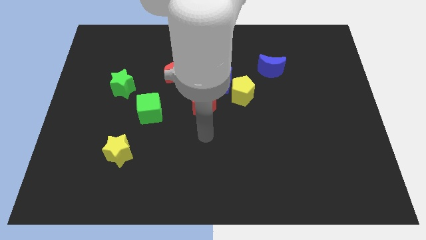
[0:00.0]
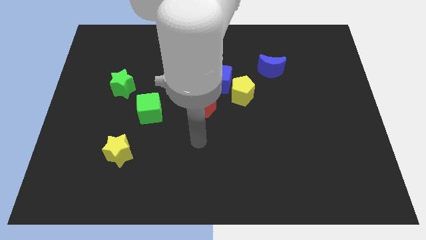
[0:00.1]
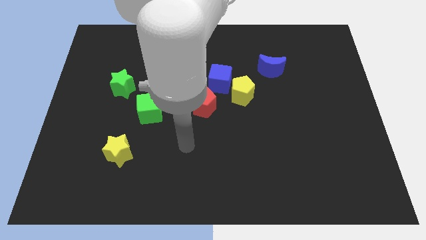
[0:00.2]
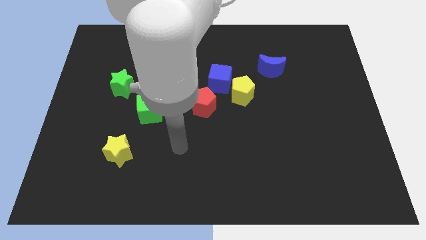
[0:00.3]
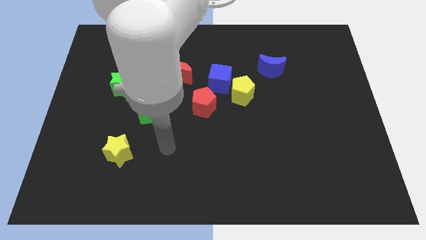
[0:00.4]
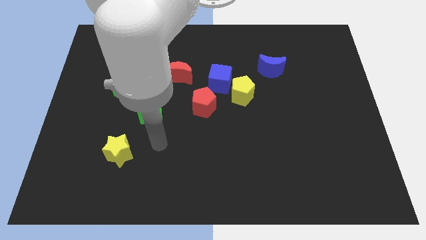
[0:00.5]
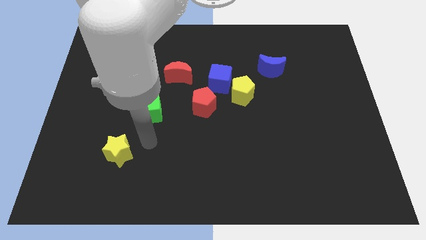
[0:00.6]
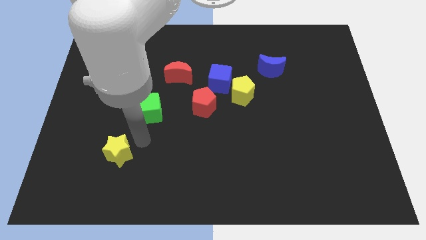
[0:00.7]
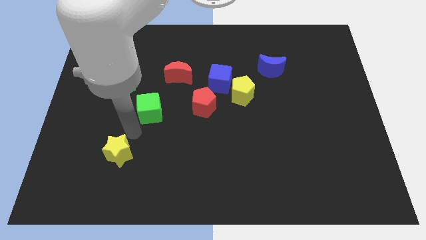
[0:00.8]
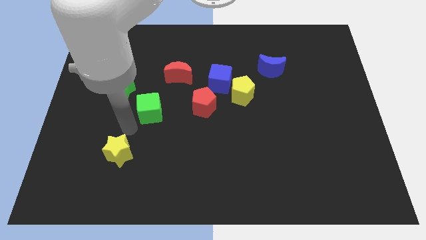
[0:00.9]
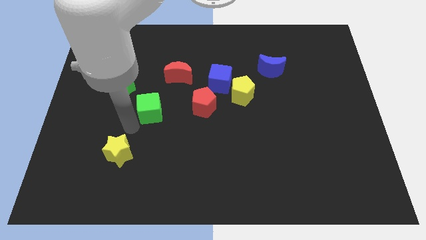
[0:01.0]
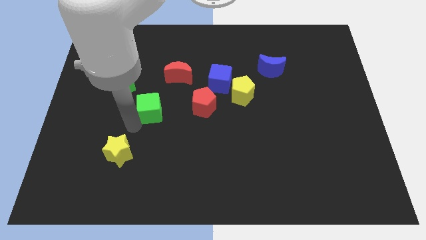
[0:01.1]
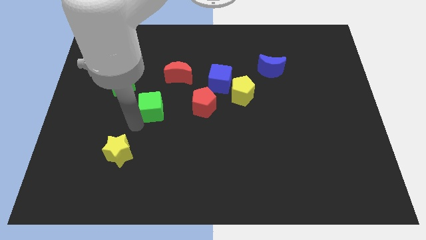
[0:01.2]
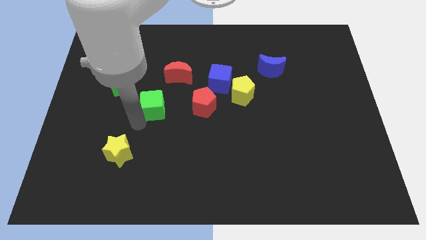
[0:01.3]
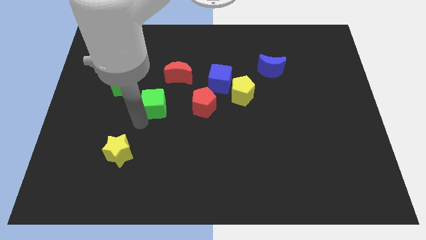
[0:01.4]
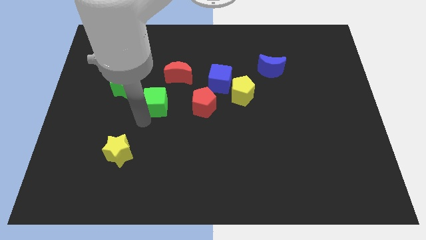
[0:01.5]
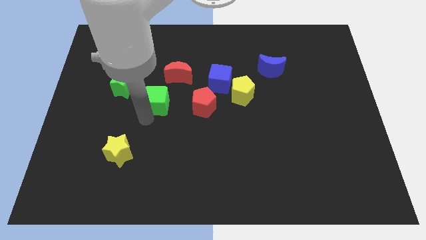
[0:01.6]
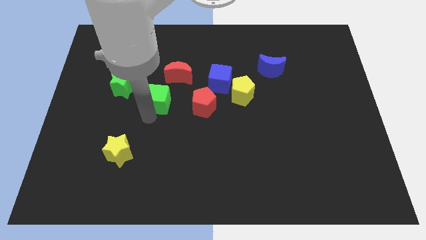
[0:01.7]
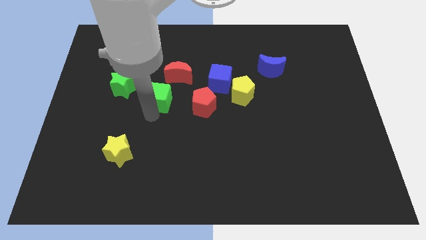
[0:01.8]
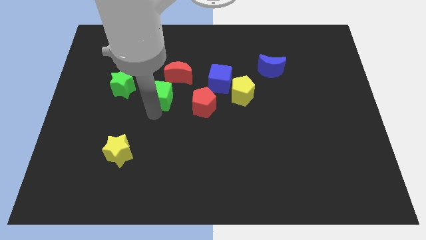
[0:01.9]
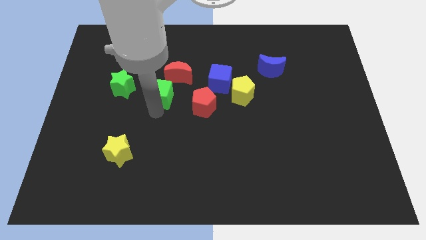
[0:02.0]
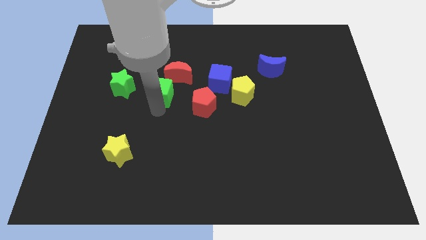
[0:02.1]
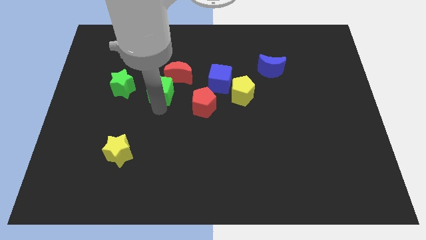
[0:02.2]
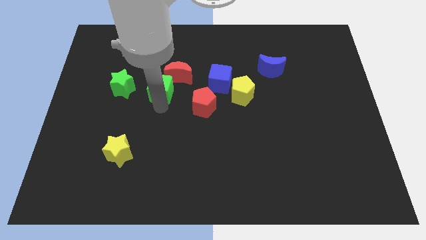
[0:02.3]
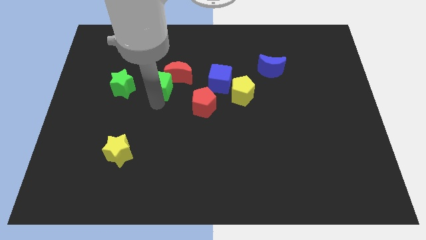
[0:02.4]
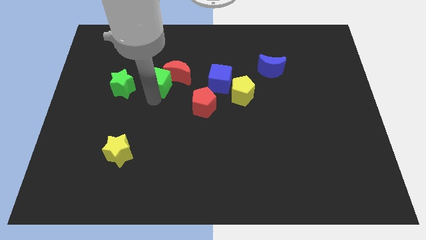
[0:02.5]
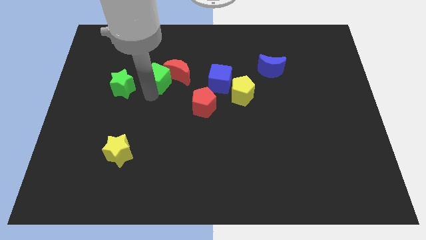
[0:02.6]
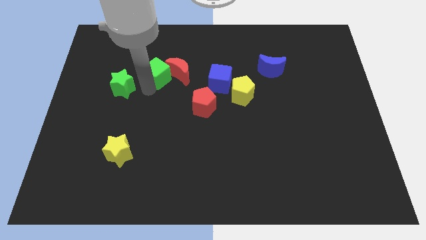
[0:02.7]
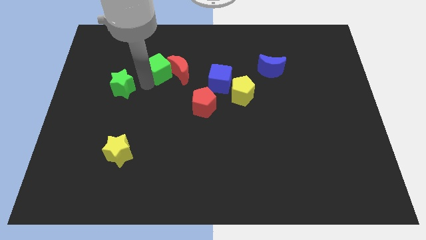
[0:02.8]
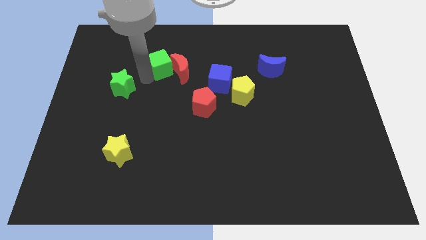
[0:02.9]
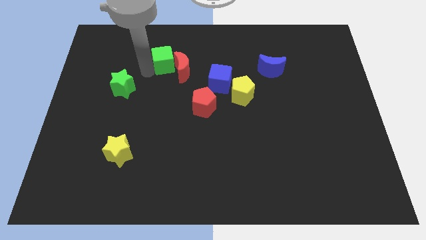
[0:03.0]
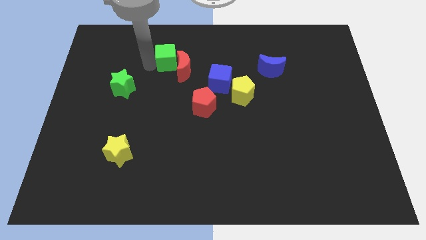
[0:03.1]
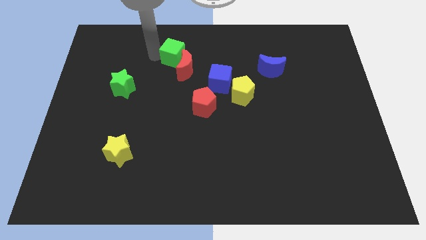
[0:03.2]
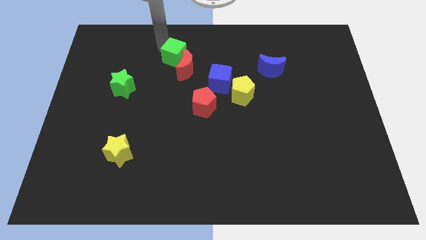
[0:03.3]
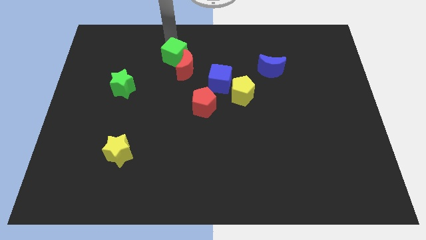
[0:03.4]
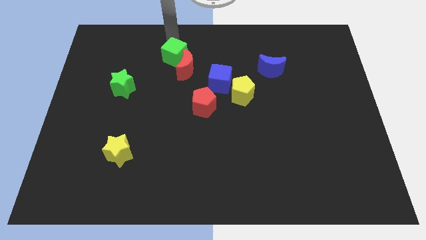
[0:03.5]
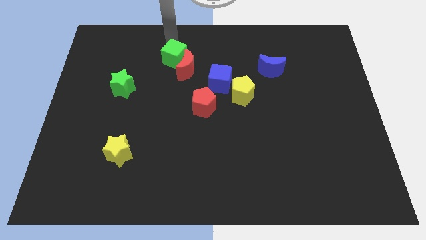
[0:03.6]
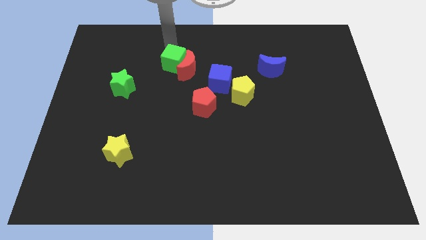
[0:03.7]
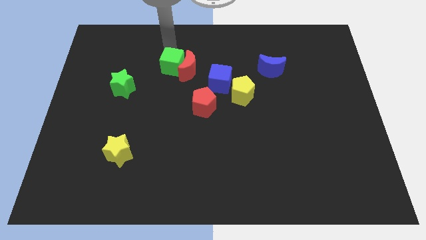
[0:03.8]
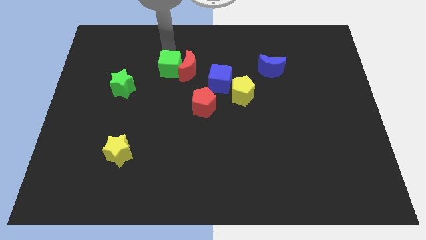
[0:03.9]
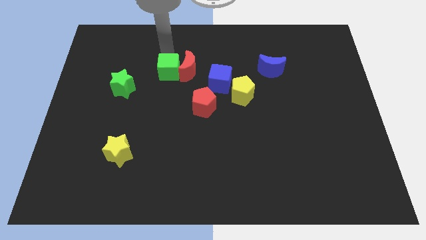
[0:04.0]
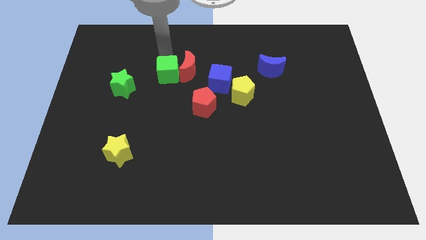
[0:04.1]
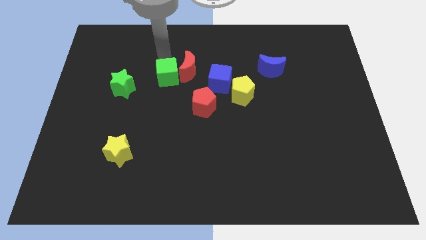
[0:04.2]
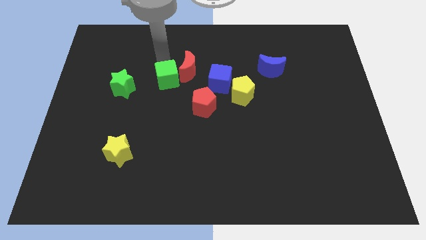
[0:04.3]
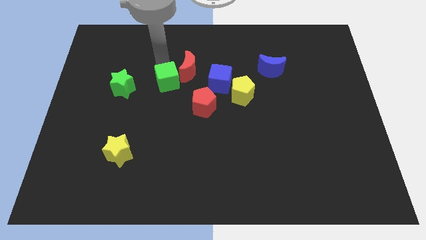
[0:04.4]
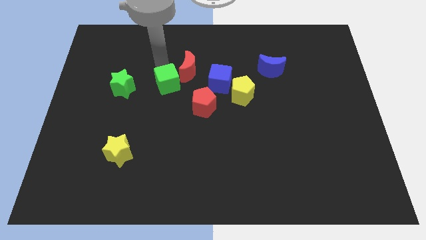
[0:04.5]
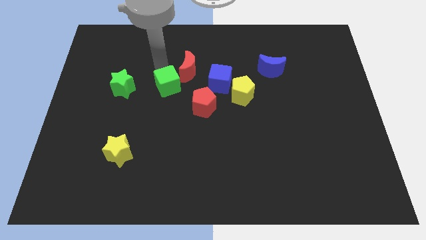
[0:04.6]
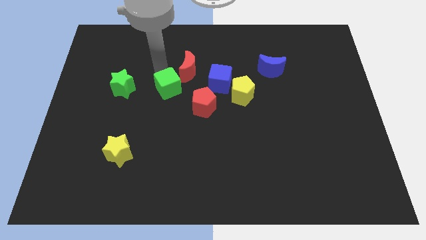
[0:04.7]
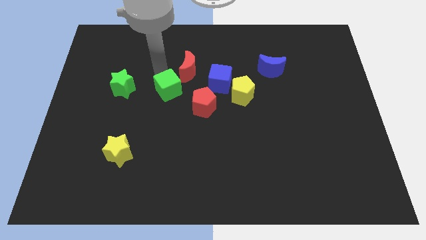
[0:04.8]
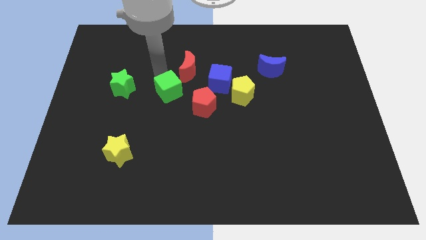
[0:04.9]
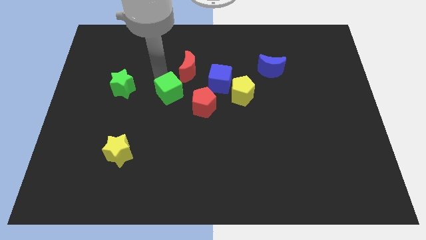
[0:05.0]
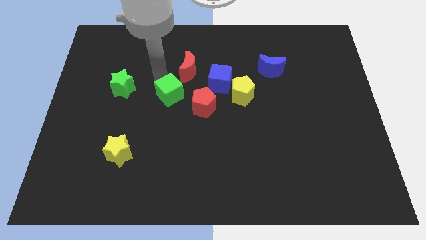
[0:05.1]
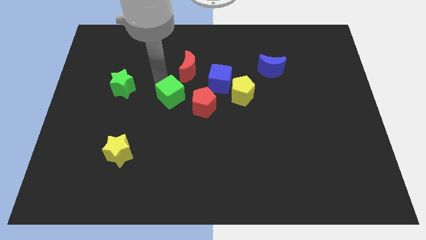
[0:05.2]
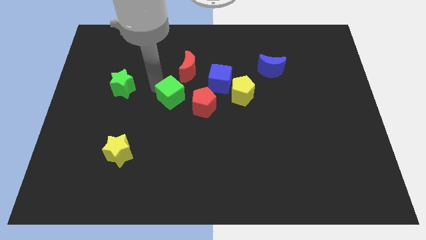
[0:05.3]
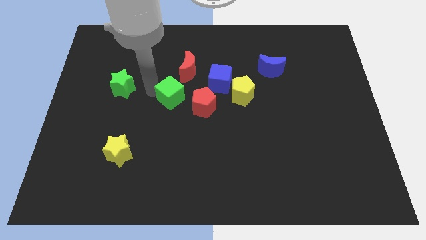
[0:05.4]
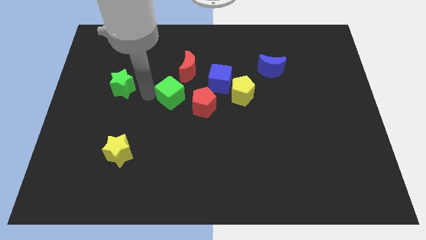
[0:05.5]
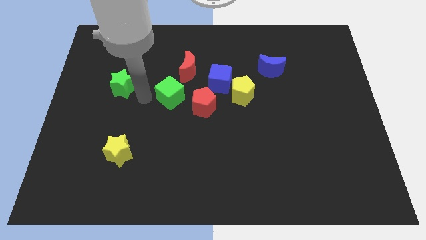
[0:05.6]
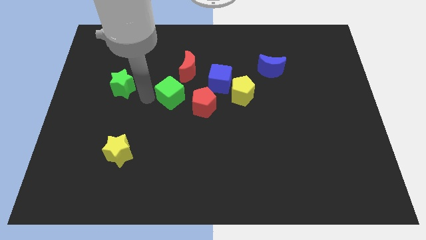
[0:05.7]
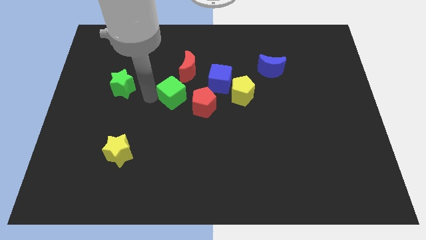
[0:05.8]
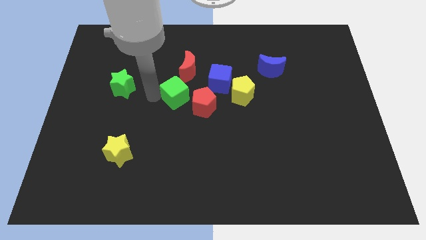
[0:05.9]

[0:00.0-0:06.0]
move the green cube left of the yellow pentagon
